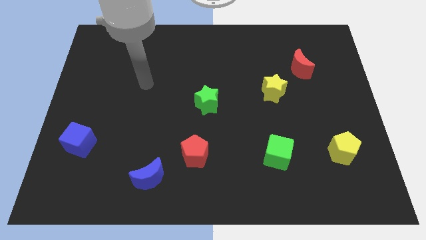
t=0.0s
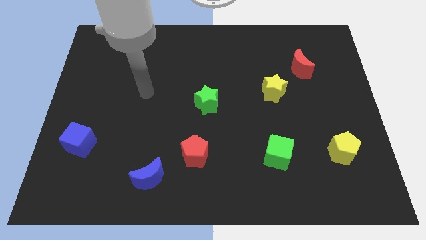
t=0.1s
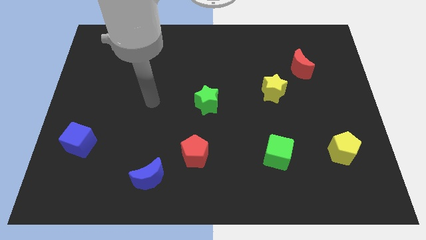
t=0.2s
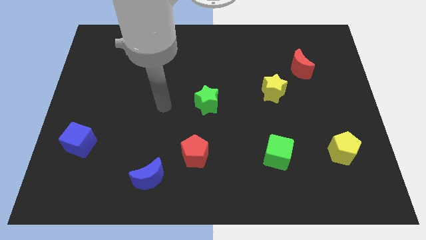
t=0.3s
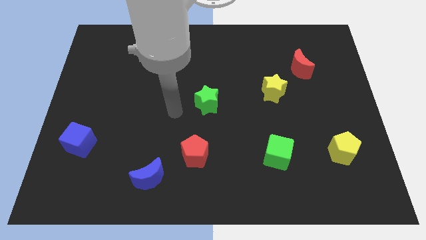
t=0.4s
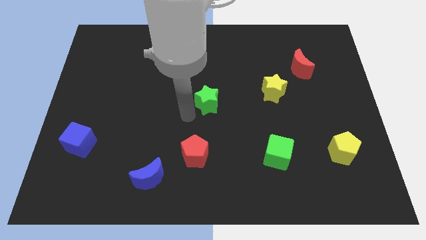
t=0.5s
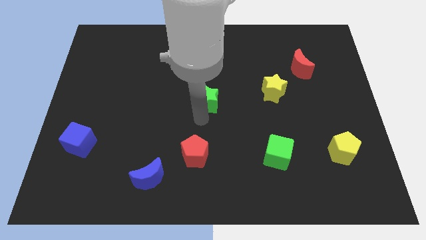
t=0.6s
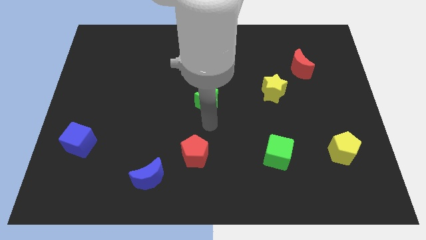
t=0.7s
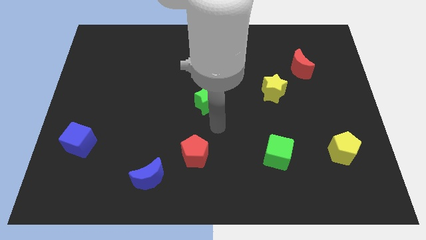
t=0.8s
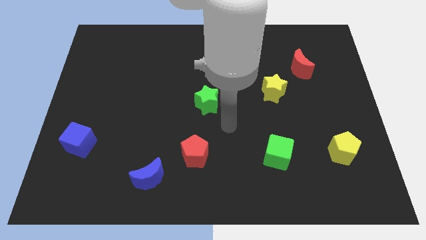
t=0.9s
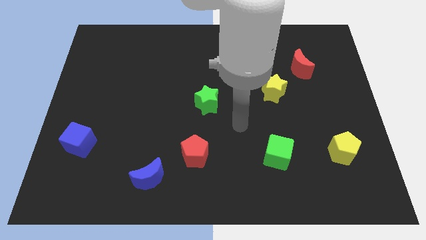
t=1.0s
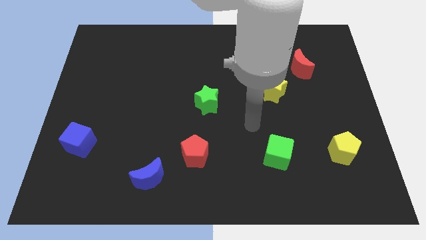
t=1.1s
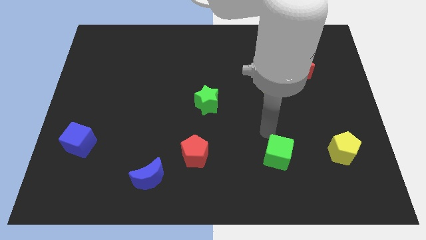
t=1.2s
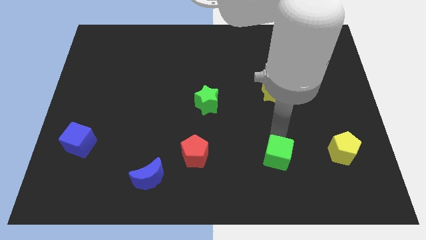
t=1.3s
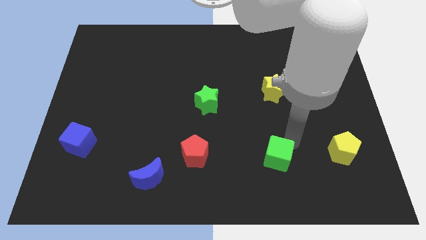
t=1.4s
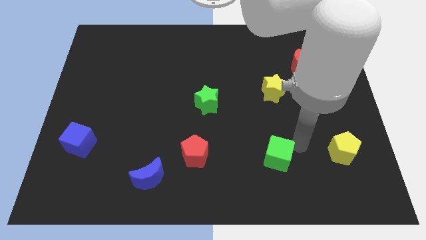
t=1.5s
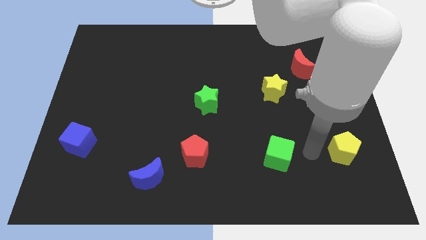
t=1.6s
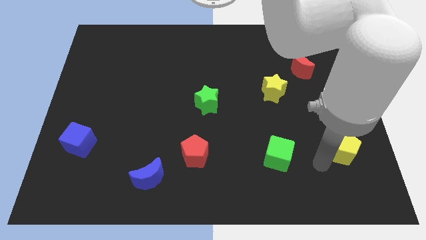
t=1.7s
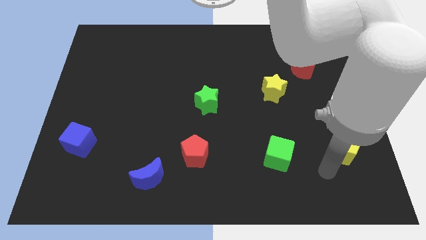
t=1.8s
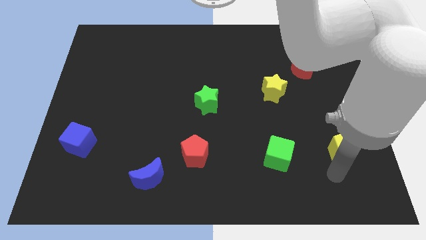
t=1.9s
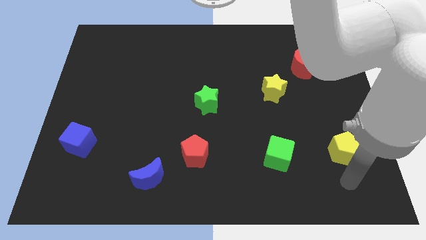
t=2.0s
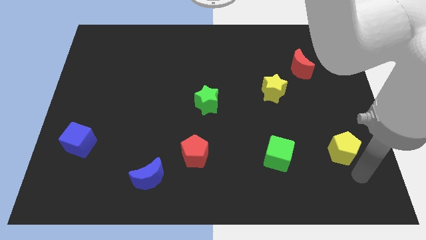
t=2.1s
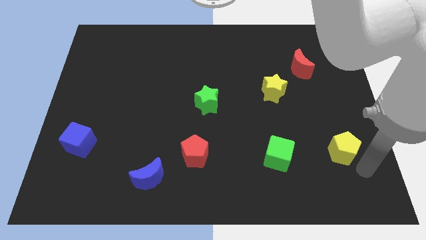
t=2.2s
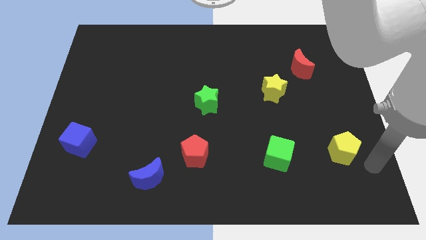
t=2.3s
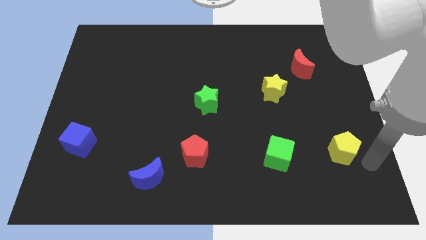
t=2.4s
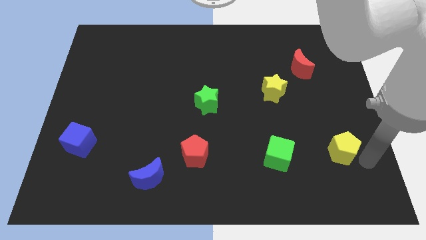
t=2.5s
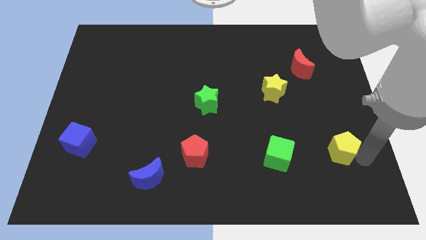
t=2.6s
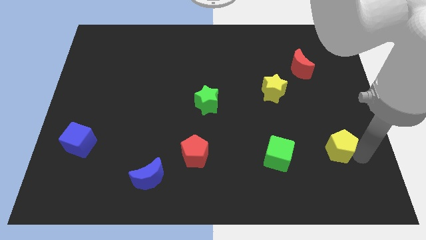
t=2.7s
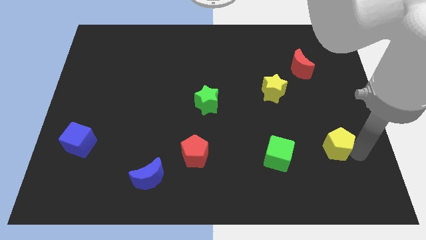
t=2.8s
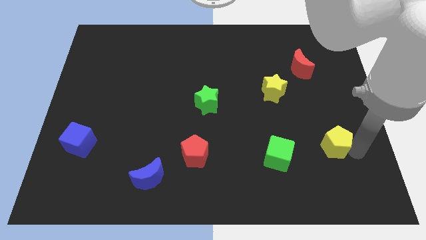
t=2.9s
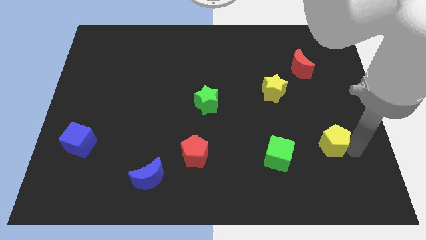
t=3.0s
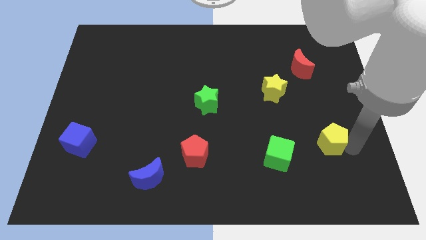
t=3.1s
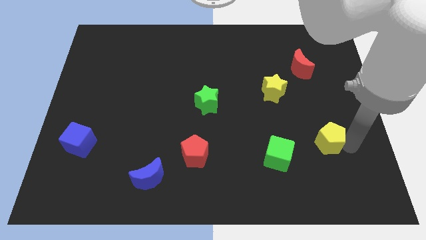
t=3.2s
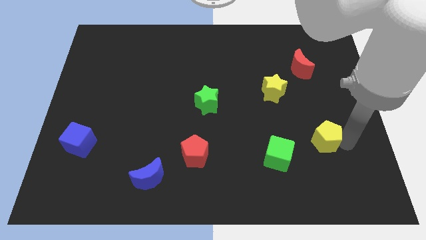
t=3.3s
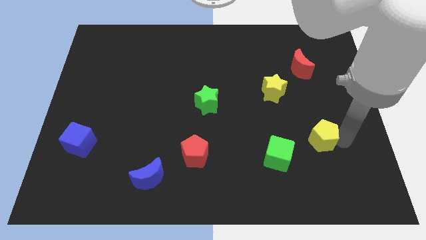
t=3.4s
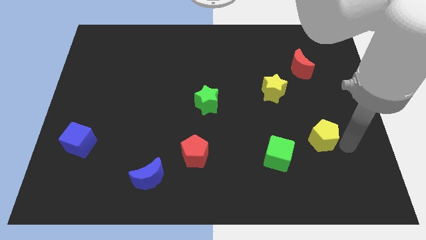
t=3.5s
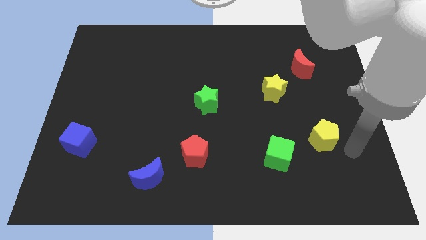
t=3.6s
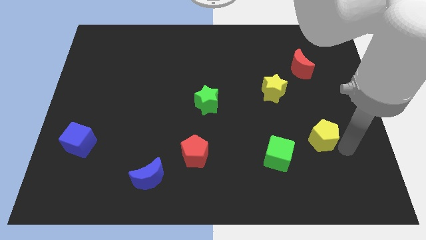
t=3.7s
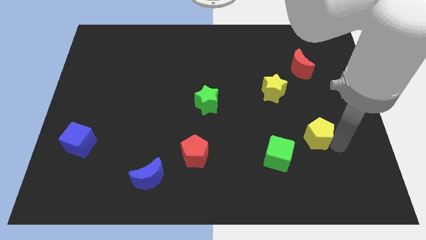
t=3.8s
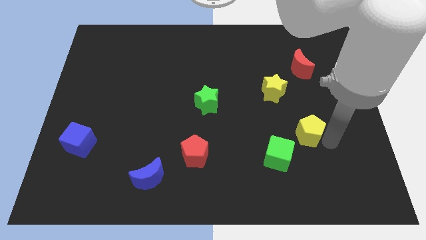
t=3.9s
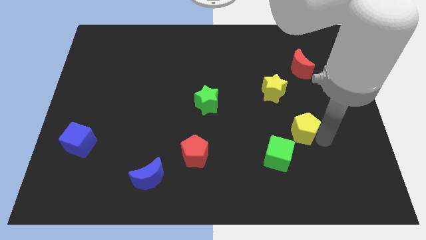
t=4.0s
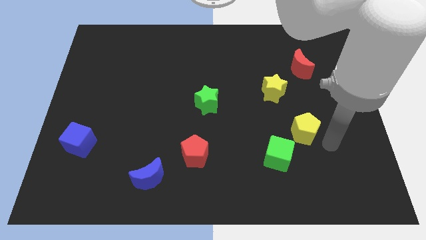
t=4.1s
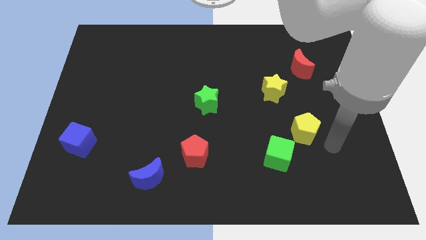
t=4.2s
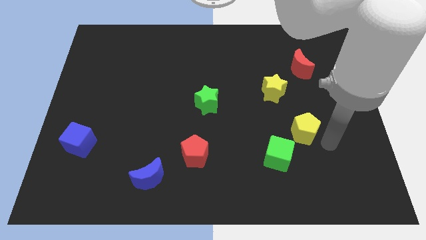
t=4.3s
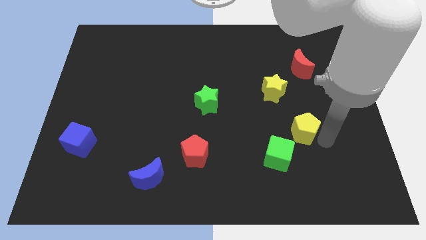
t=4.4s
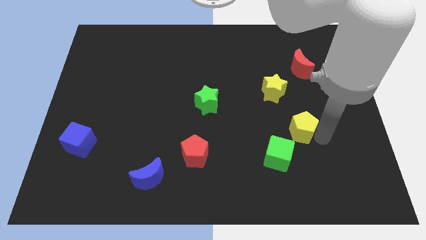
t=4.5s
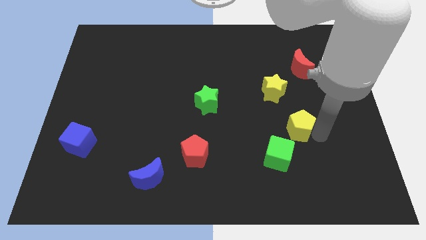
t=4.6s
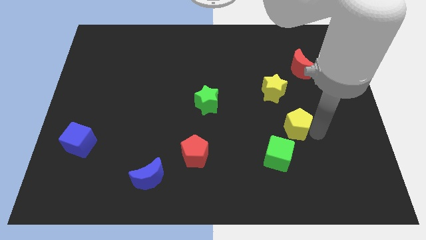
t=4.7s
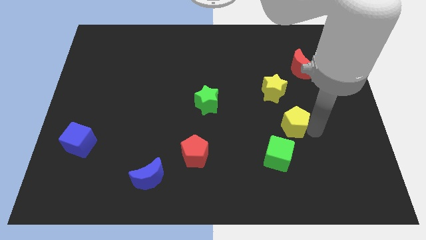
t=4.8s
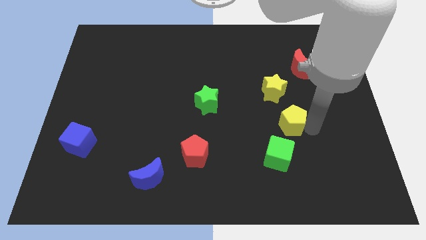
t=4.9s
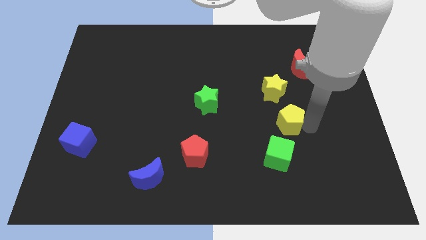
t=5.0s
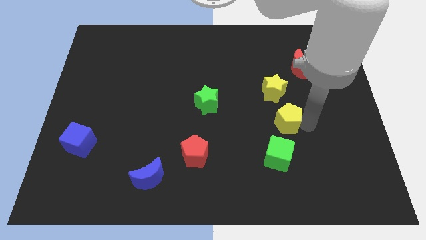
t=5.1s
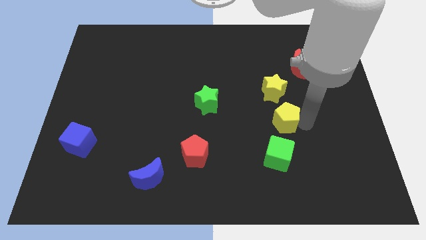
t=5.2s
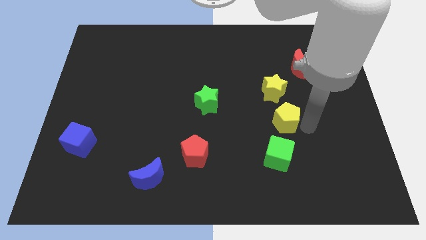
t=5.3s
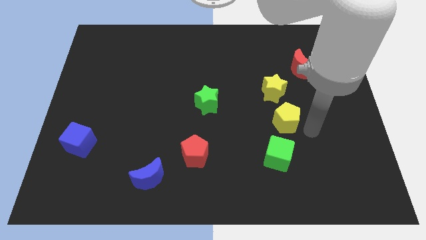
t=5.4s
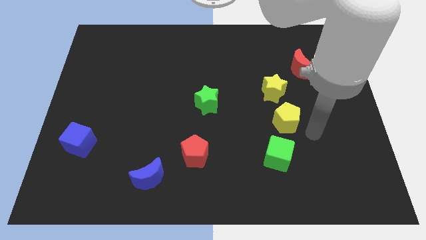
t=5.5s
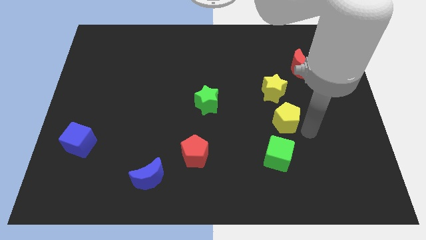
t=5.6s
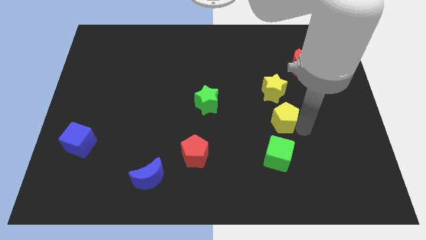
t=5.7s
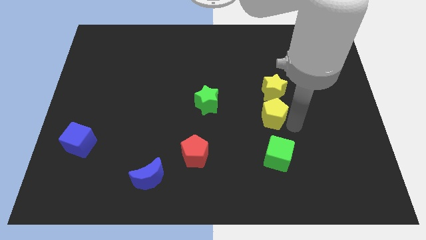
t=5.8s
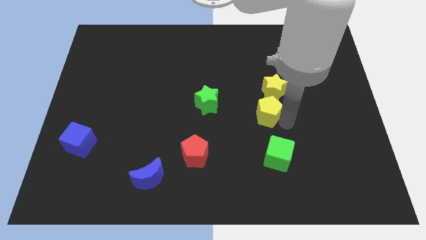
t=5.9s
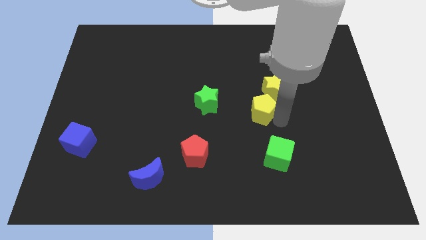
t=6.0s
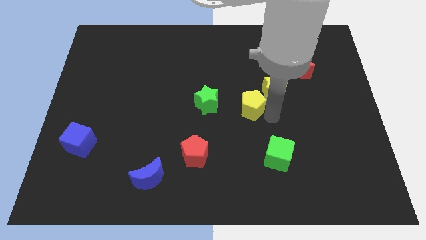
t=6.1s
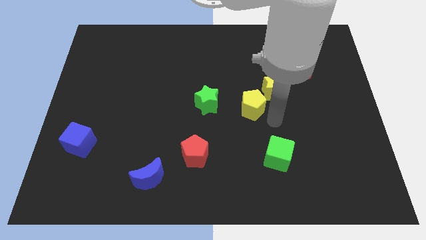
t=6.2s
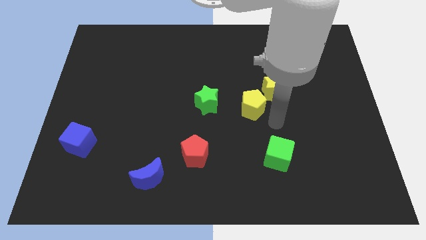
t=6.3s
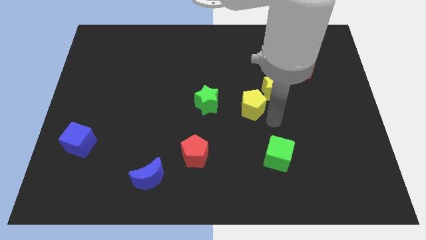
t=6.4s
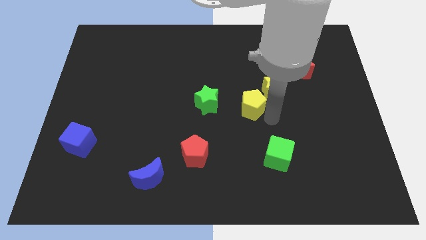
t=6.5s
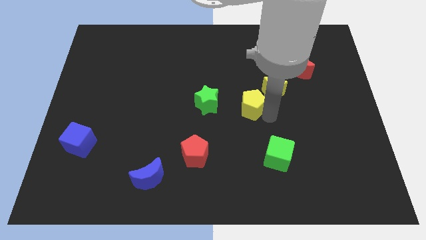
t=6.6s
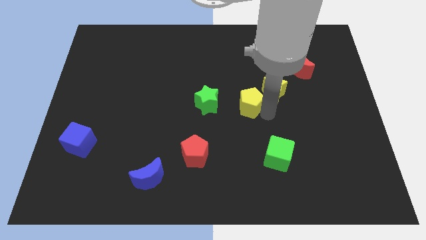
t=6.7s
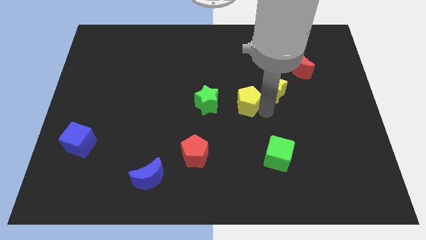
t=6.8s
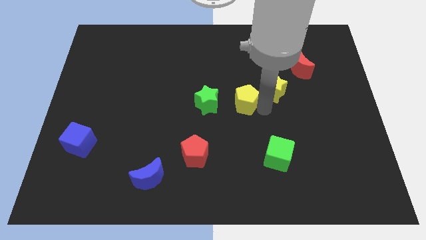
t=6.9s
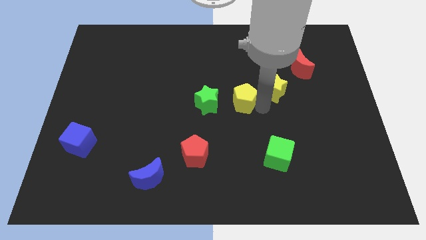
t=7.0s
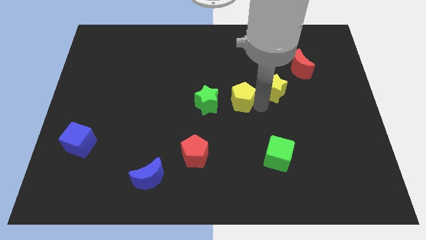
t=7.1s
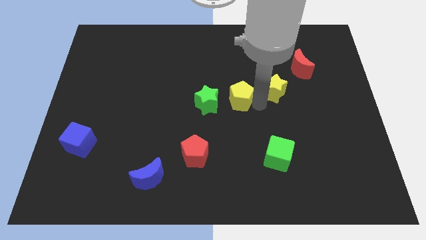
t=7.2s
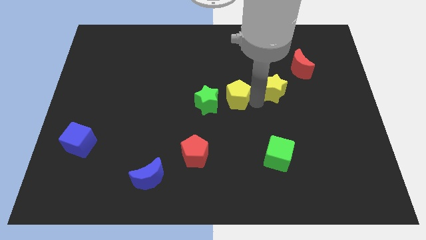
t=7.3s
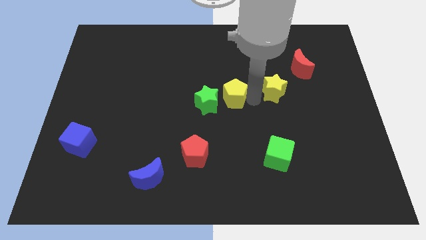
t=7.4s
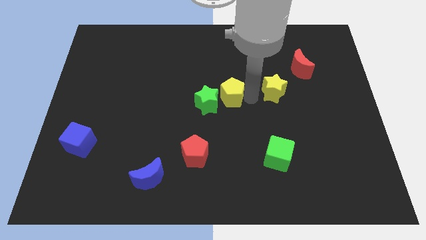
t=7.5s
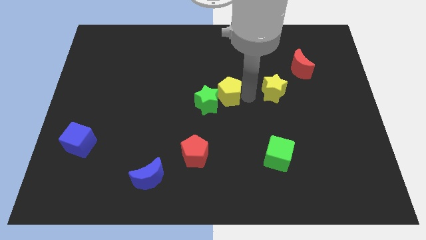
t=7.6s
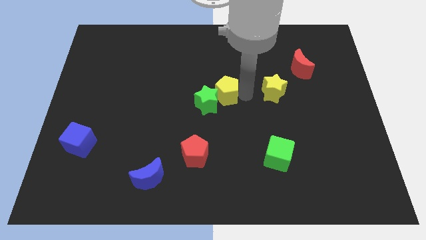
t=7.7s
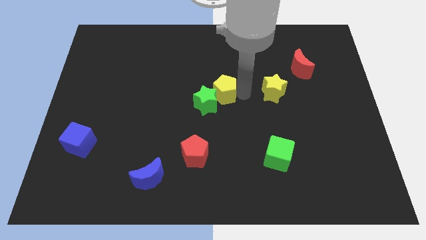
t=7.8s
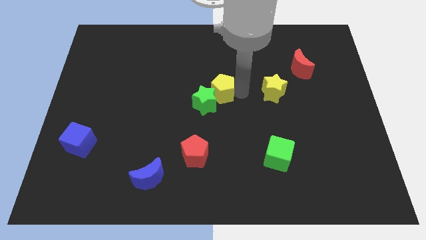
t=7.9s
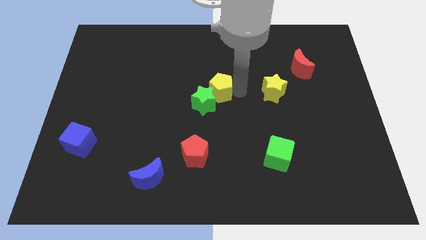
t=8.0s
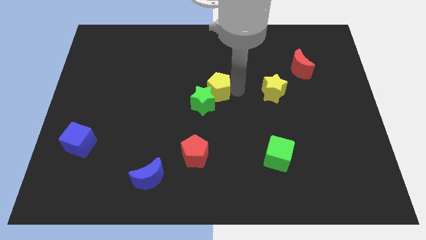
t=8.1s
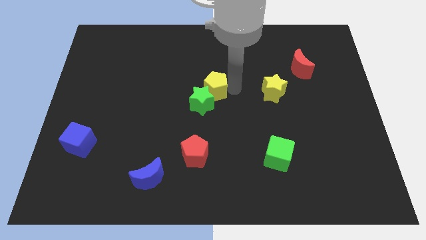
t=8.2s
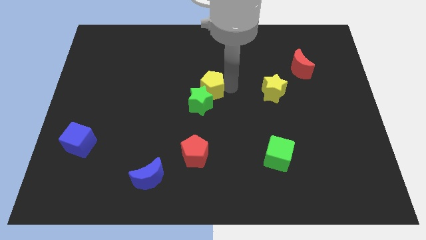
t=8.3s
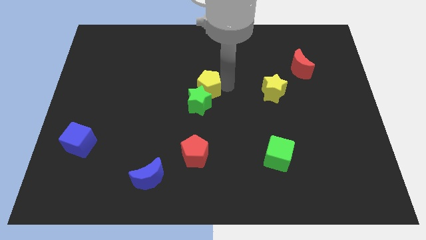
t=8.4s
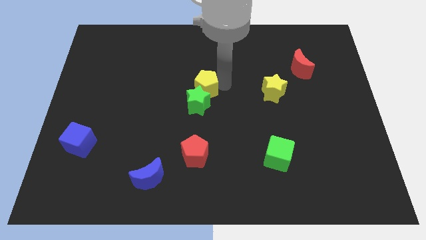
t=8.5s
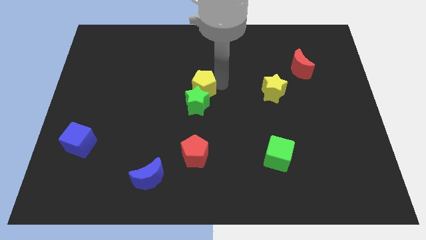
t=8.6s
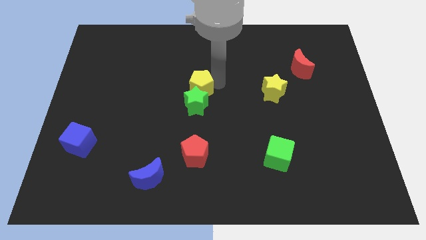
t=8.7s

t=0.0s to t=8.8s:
put the yellow pentagon to the top left of the green star
